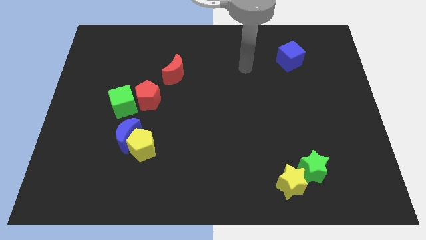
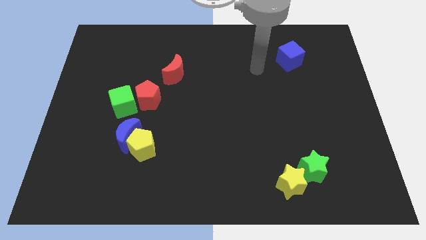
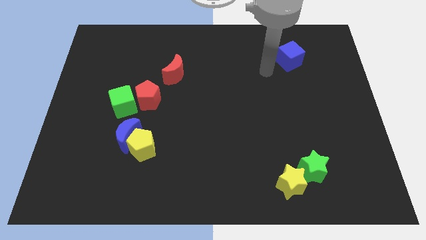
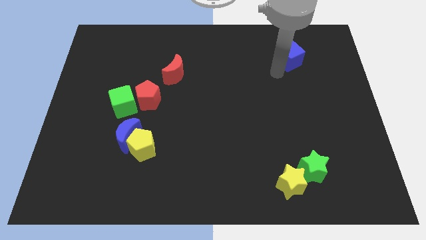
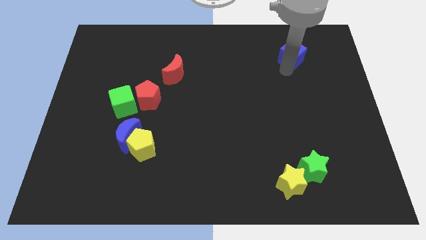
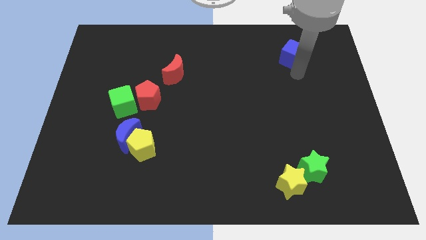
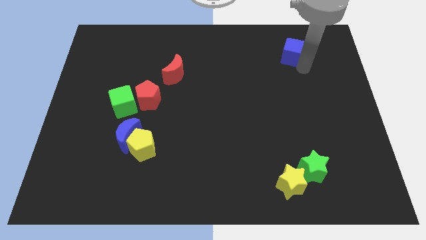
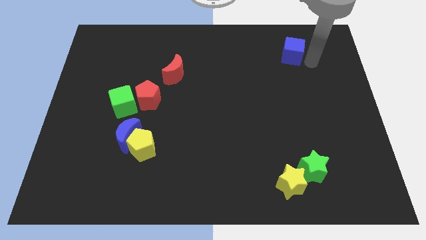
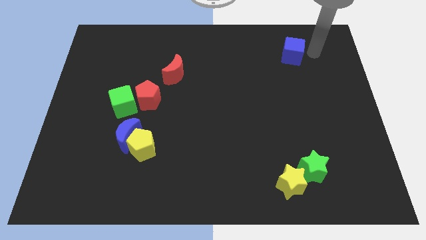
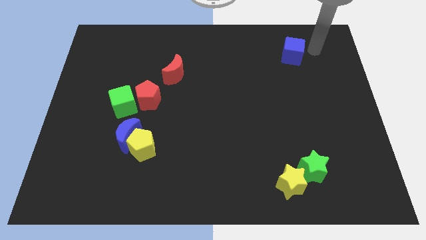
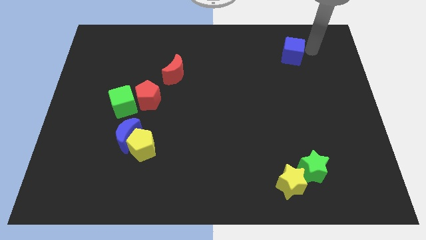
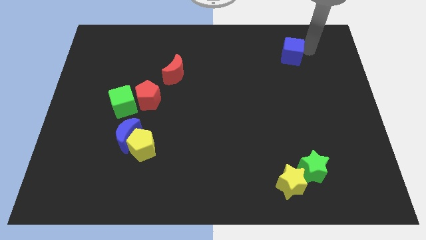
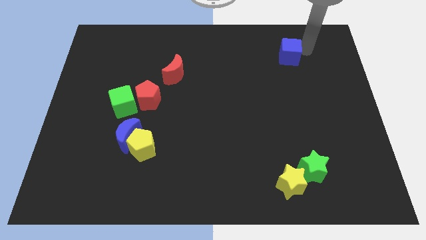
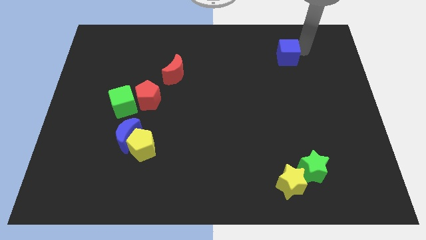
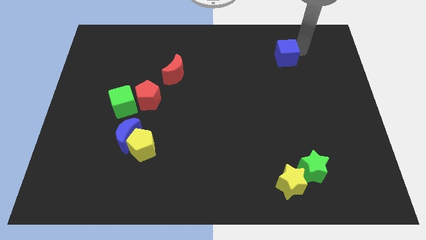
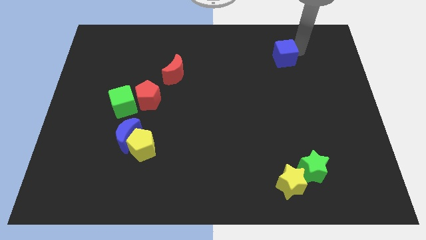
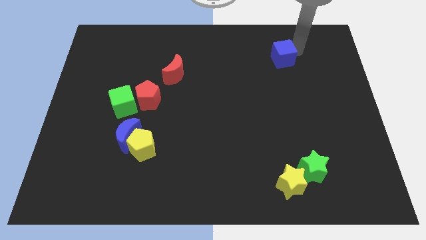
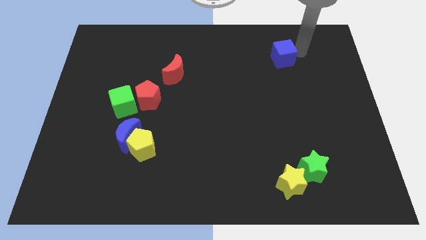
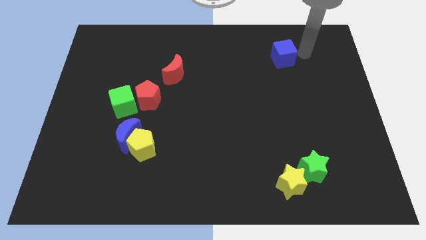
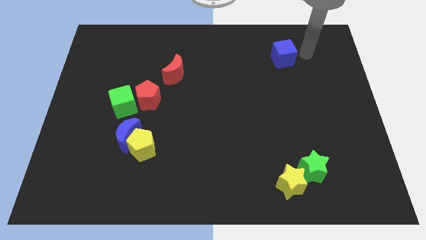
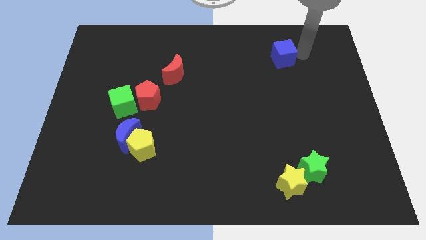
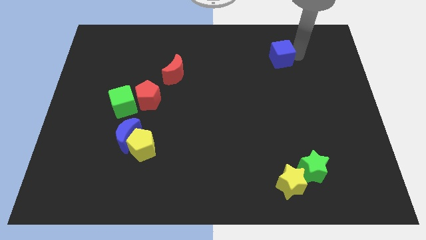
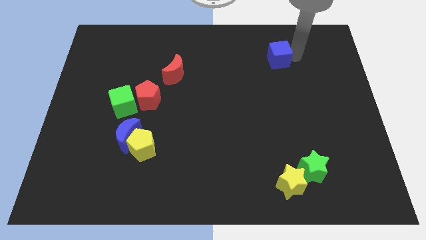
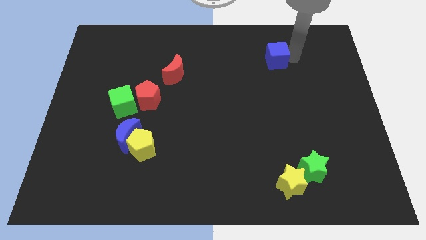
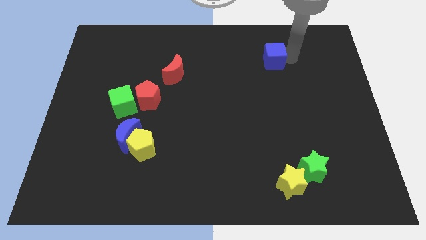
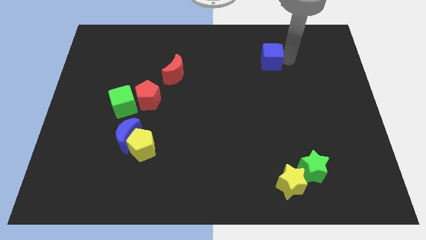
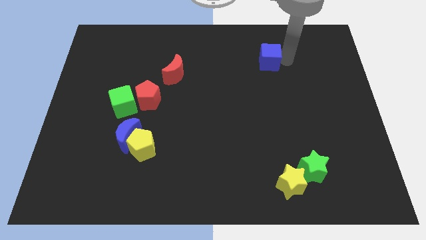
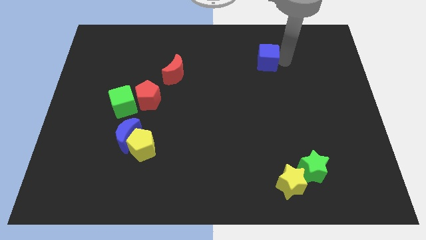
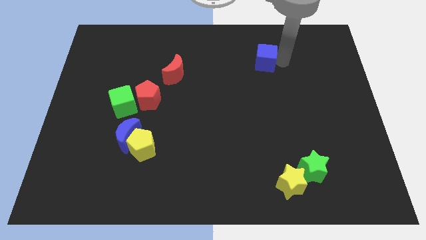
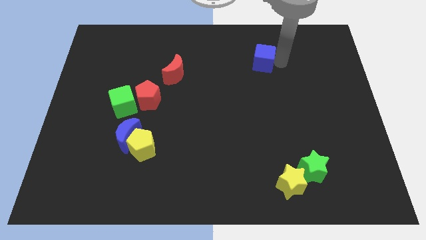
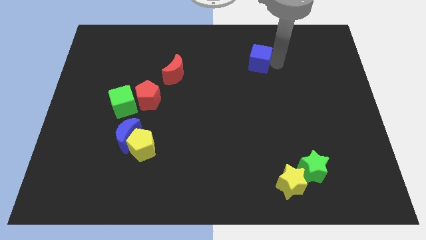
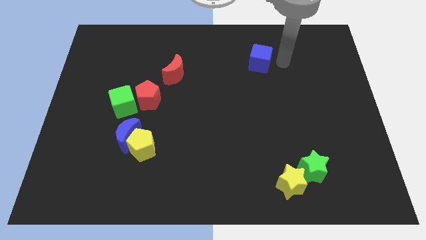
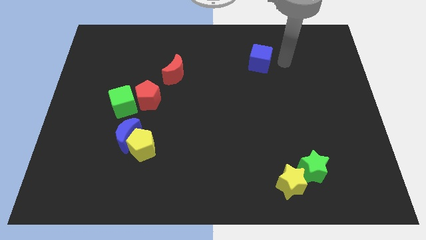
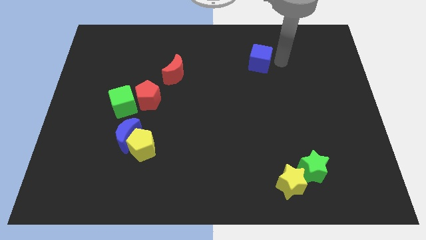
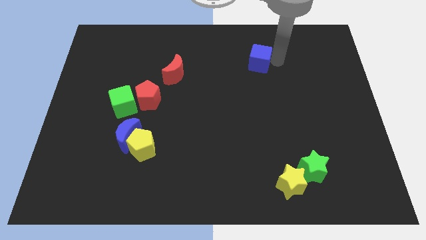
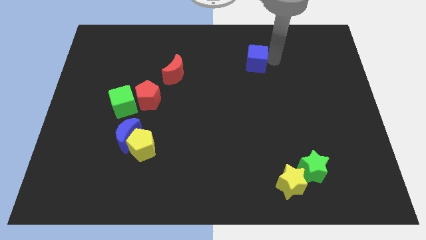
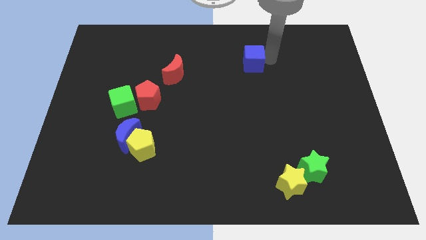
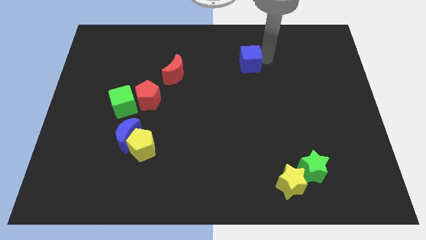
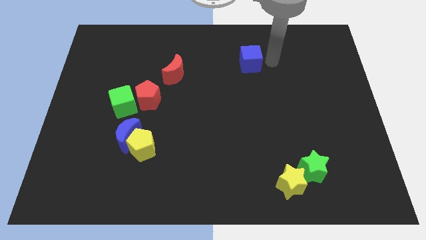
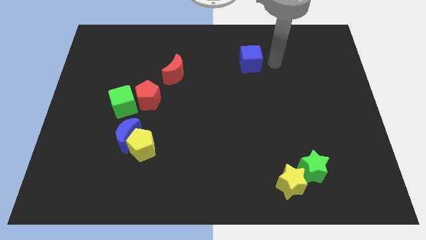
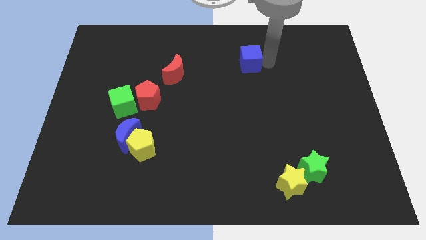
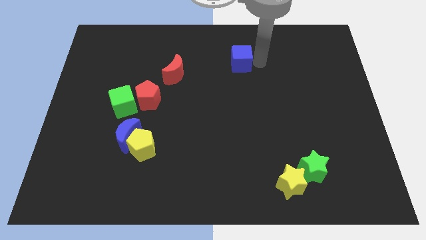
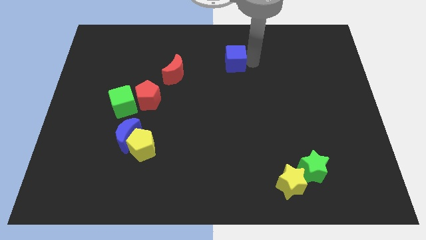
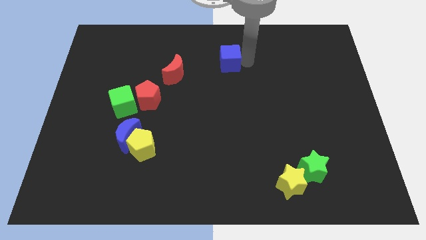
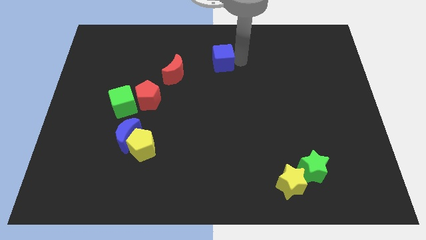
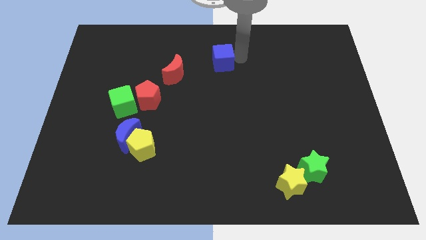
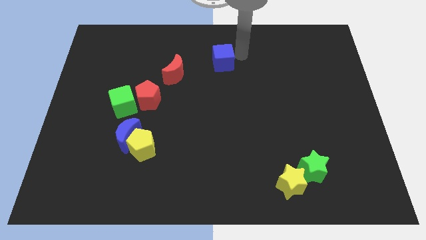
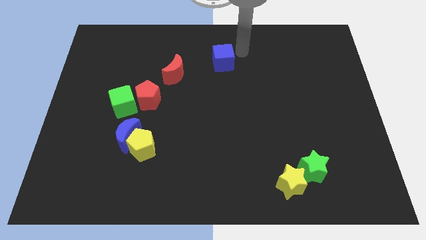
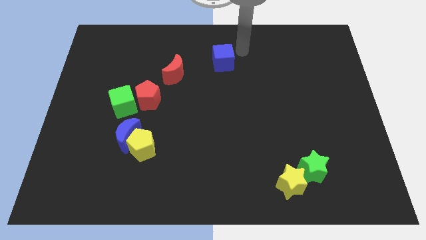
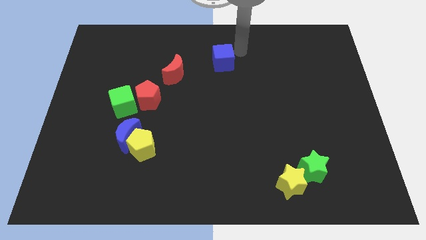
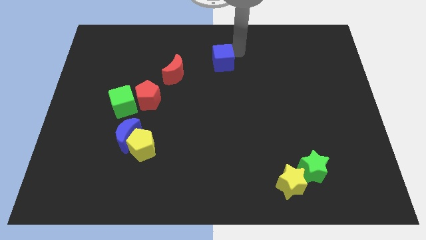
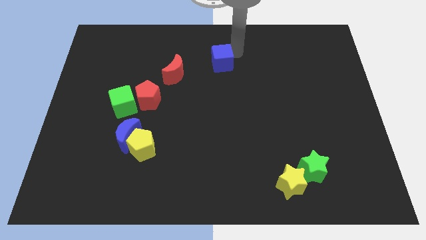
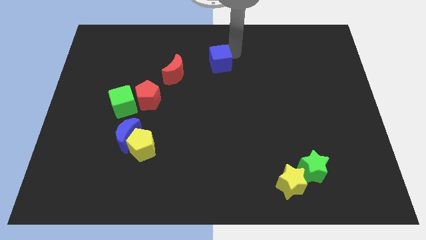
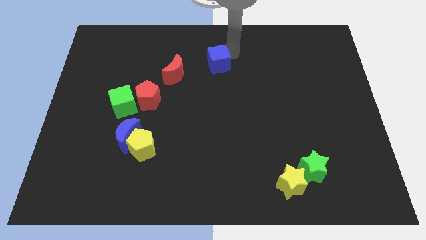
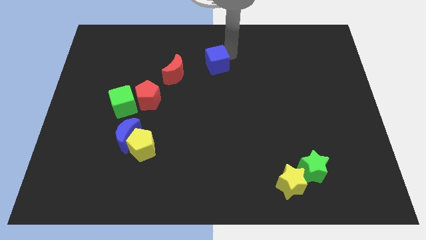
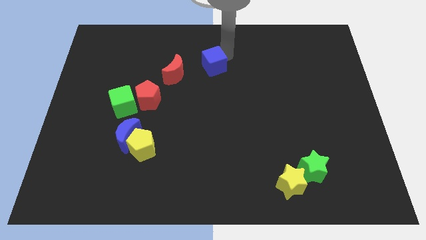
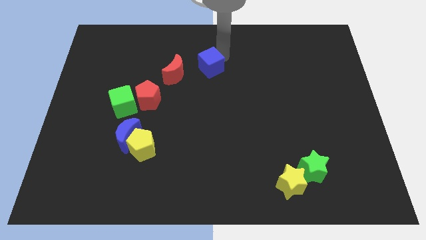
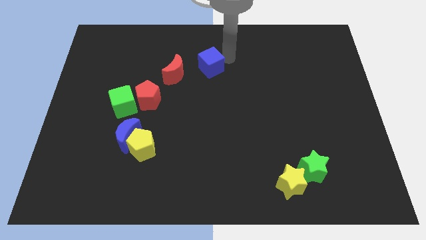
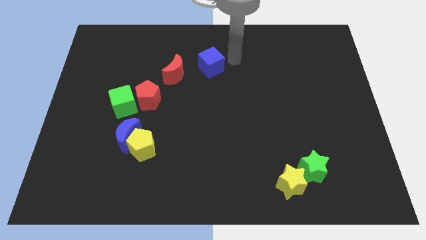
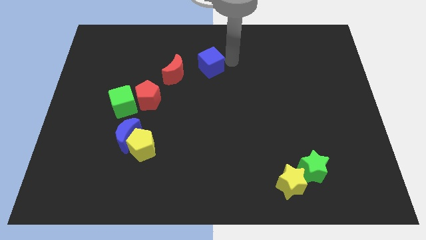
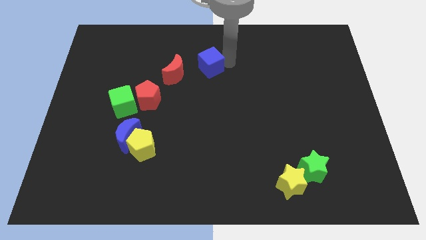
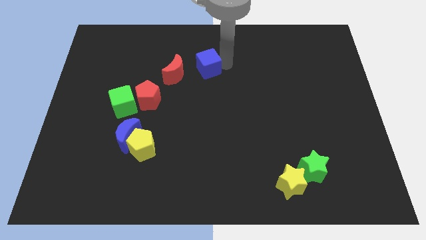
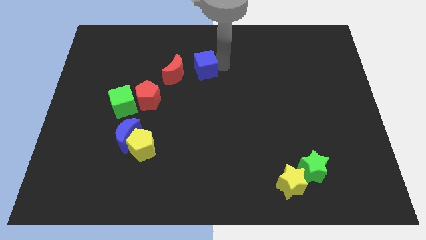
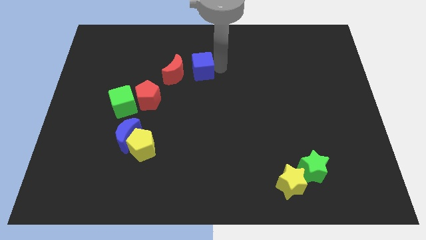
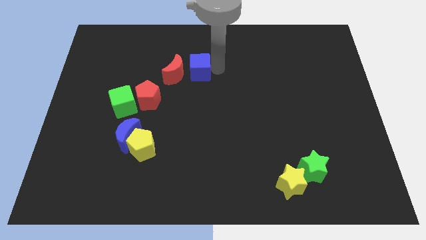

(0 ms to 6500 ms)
put the blue cube close to the red moon

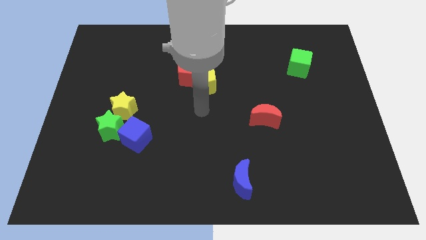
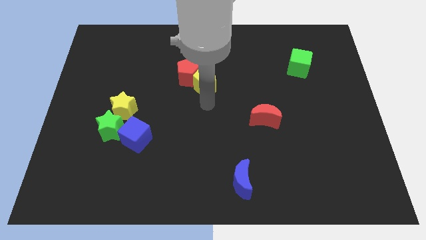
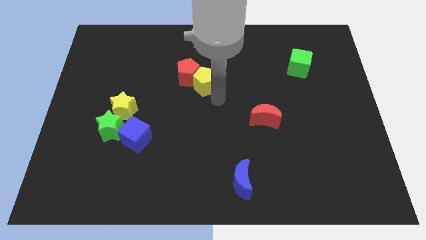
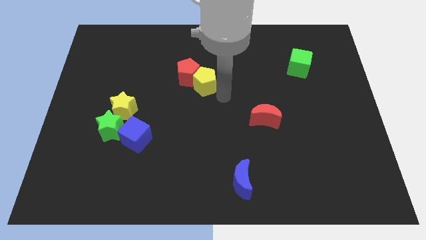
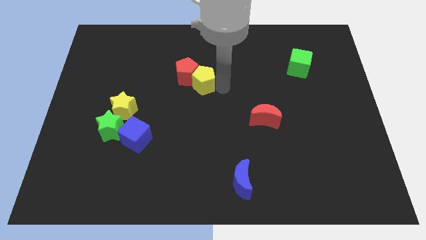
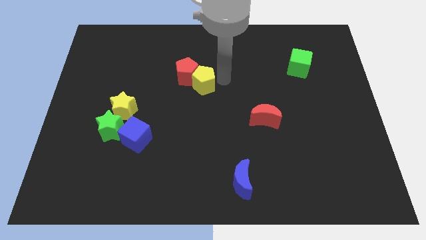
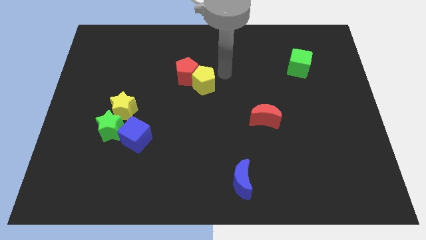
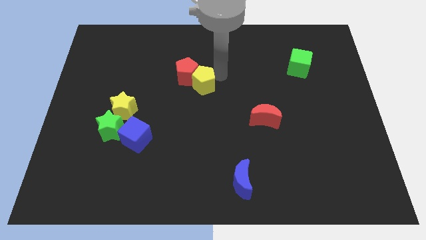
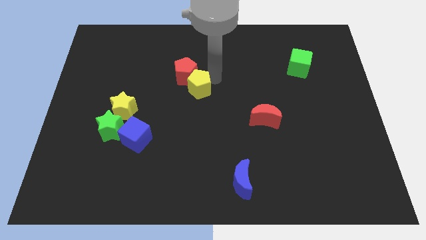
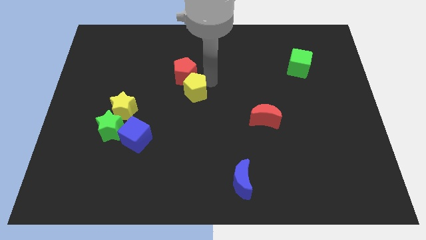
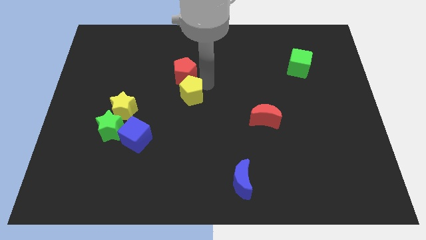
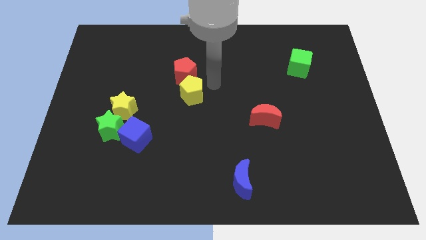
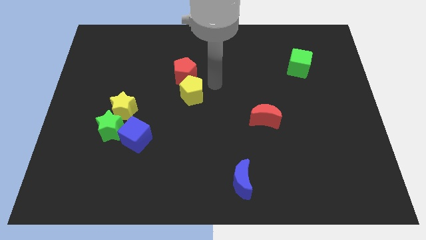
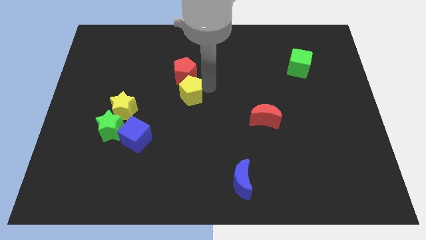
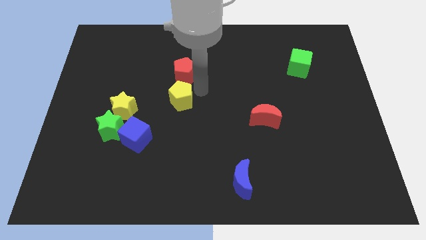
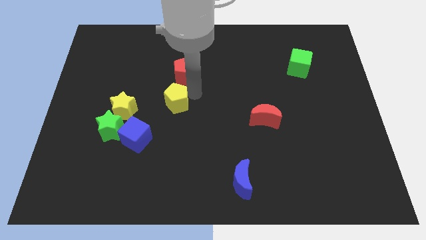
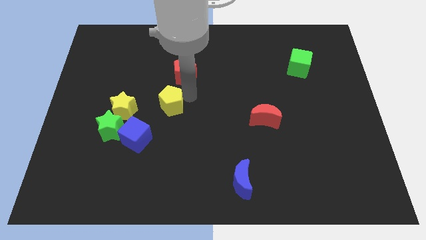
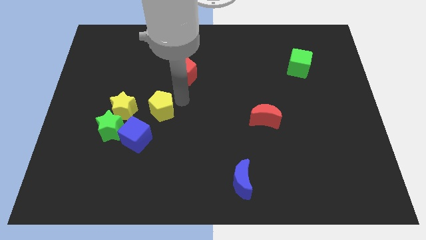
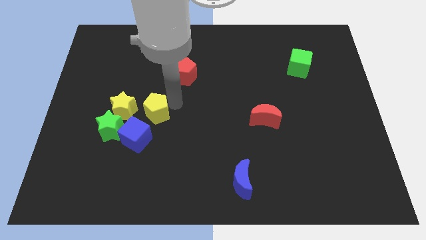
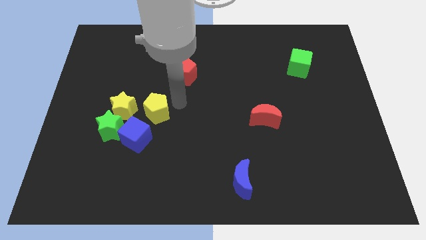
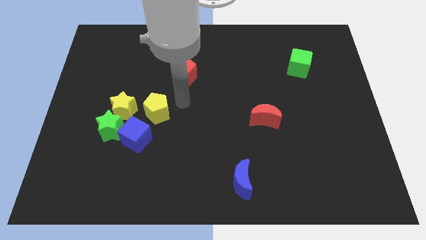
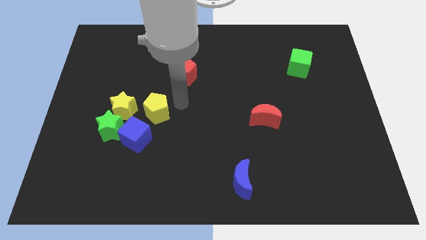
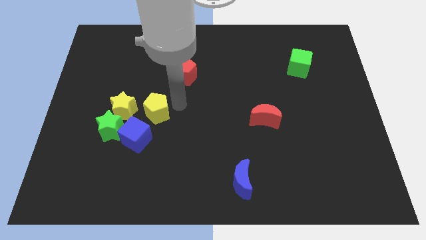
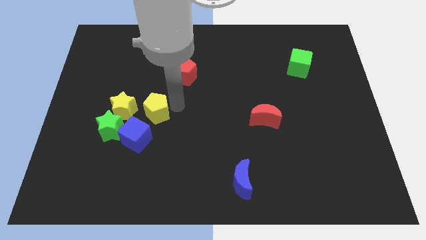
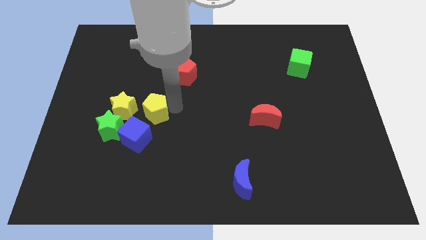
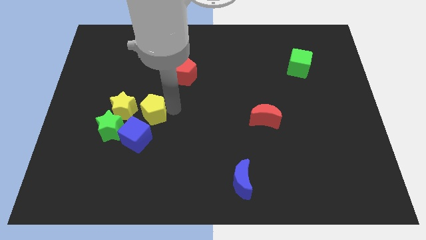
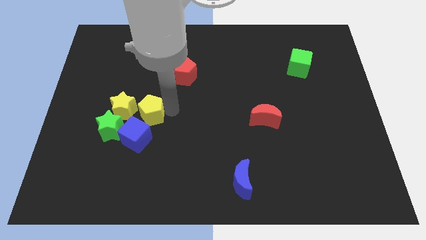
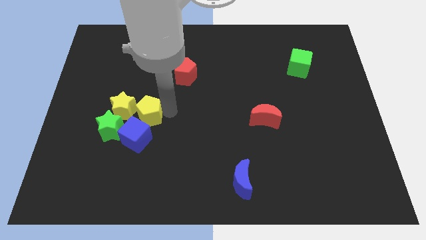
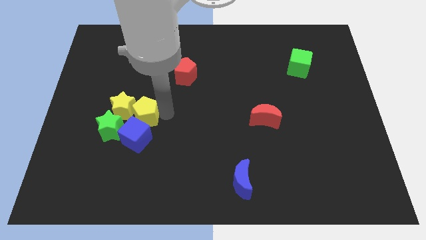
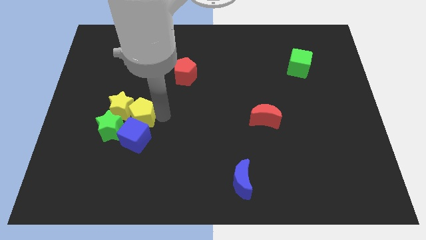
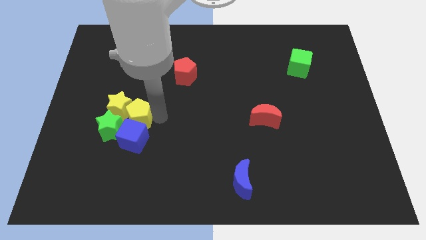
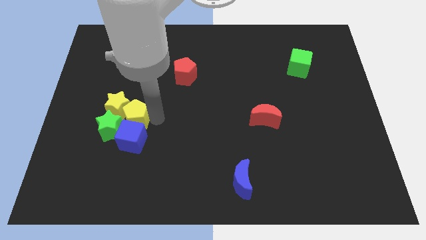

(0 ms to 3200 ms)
slide the yellow pentagon to the green star
